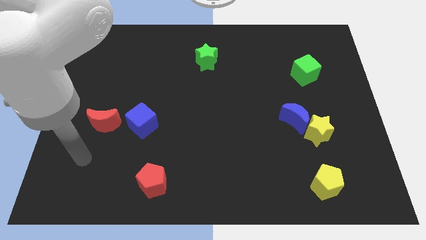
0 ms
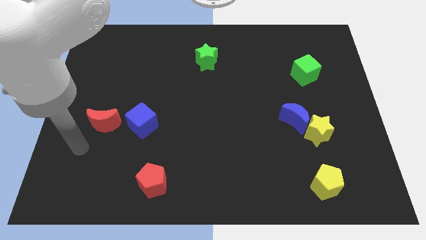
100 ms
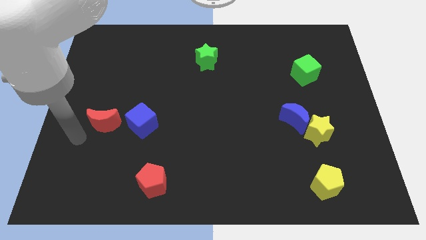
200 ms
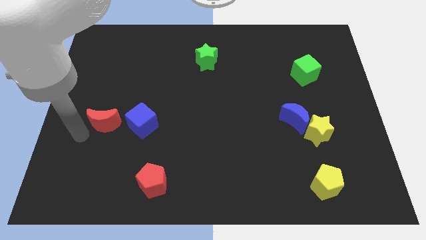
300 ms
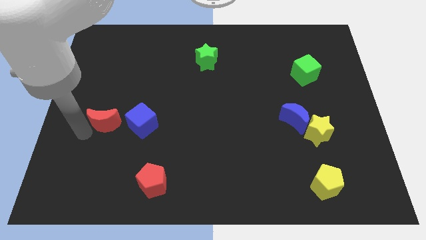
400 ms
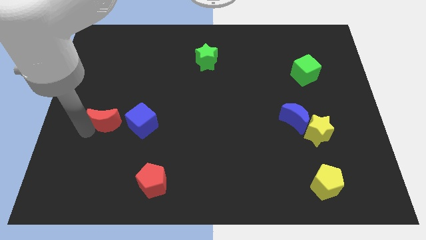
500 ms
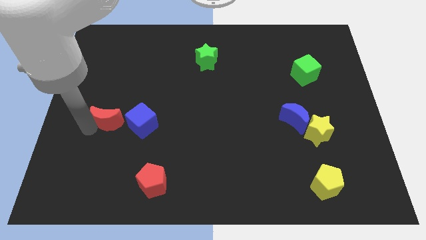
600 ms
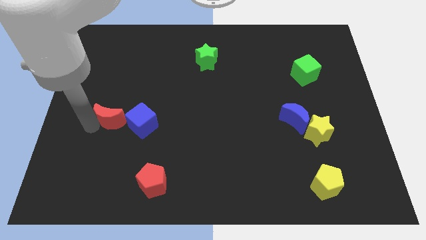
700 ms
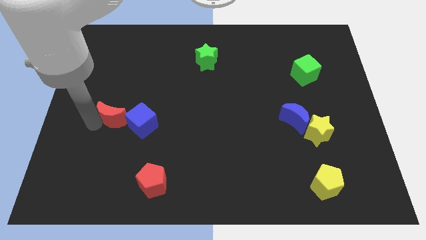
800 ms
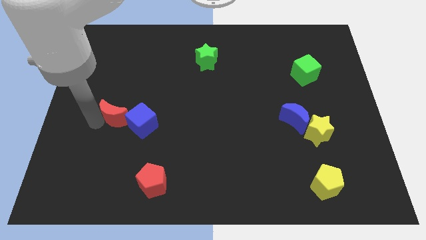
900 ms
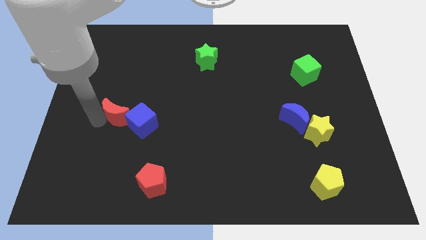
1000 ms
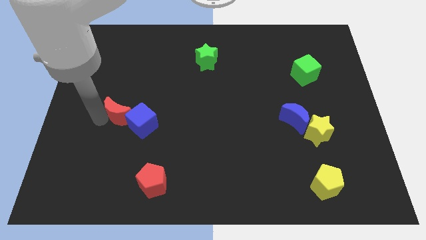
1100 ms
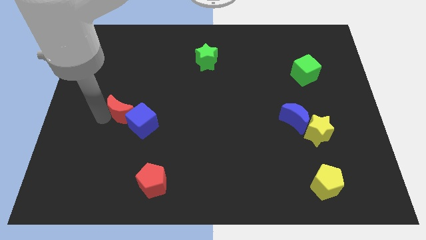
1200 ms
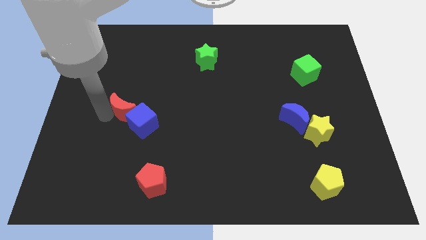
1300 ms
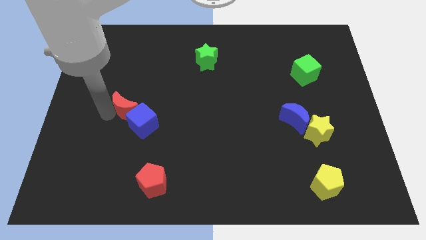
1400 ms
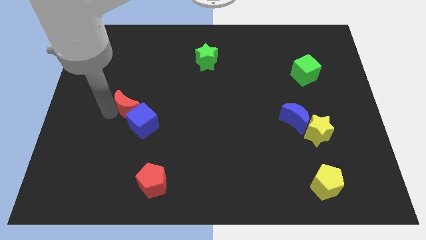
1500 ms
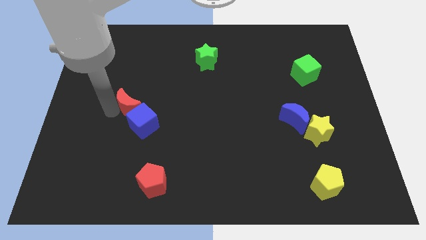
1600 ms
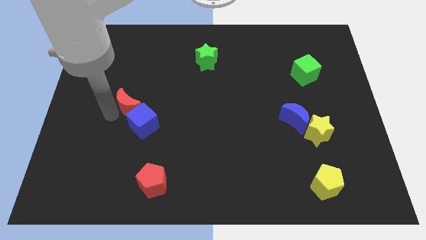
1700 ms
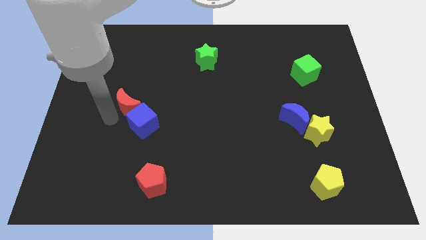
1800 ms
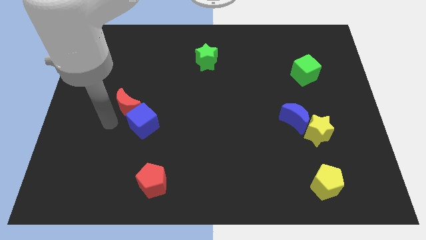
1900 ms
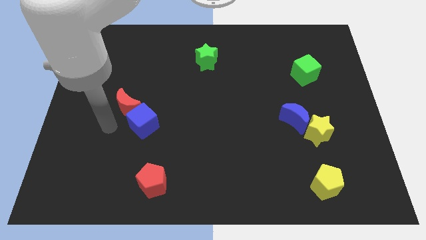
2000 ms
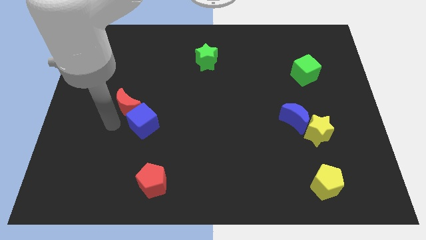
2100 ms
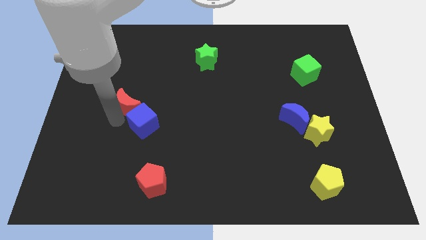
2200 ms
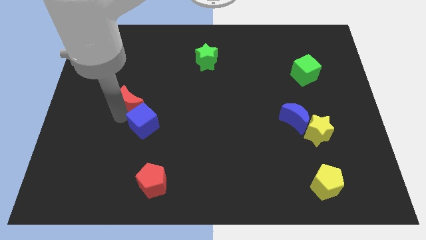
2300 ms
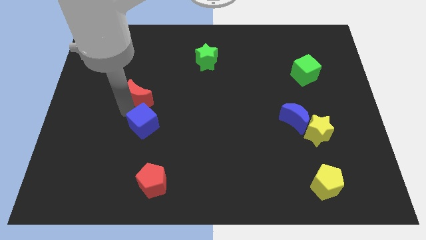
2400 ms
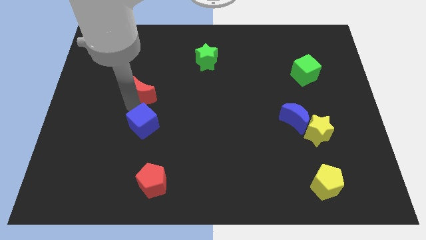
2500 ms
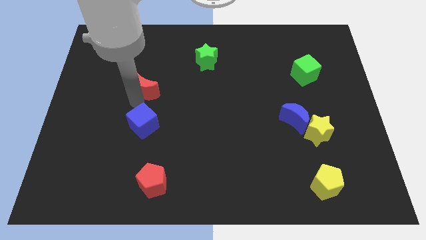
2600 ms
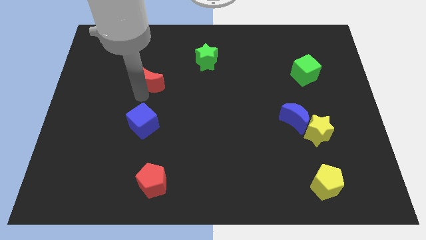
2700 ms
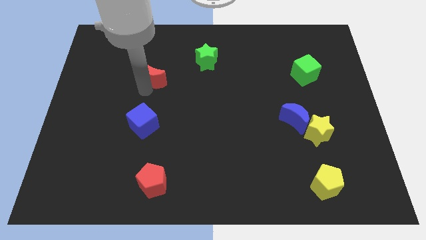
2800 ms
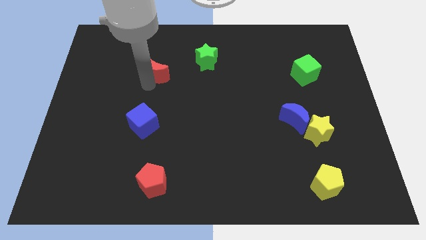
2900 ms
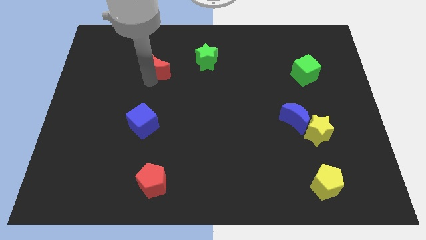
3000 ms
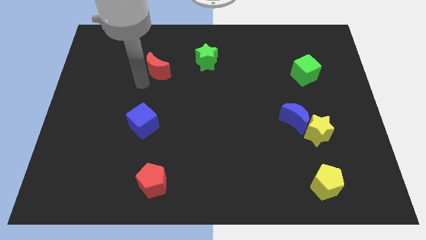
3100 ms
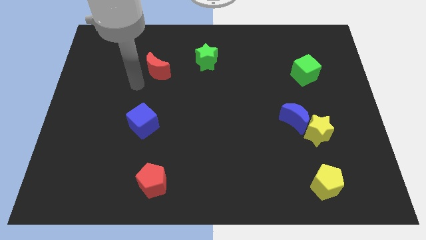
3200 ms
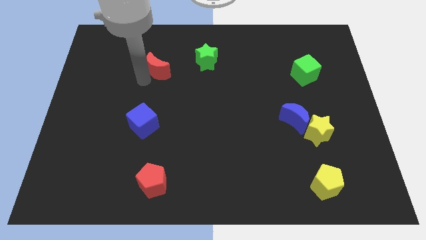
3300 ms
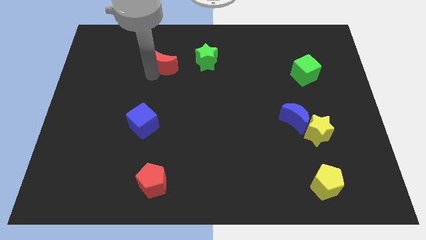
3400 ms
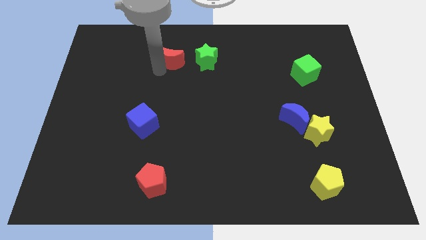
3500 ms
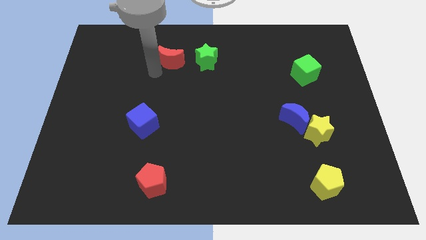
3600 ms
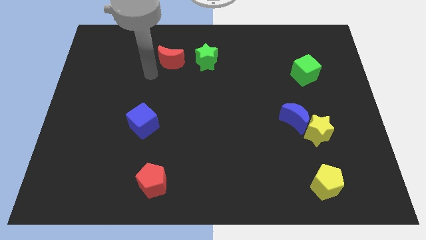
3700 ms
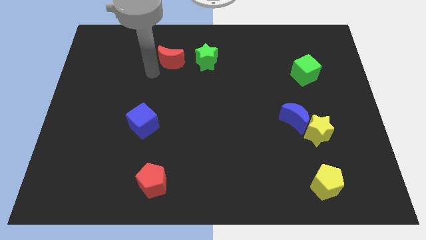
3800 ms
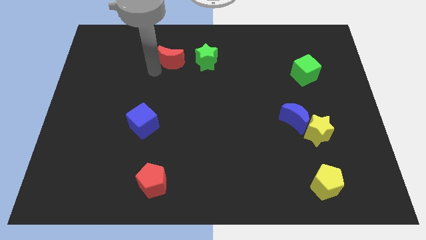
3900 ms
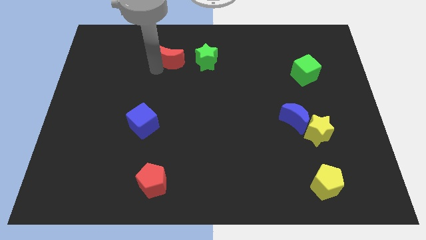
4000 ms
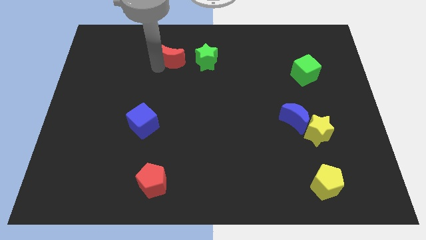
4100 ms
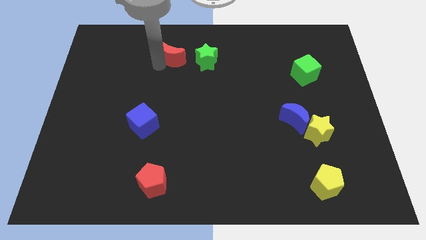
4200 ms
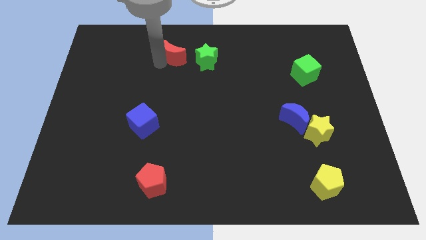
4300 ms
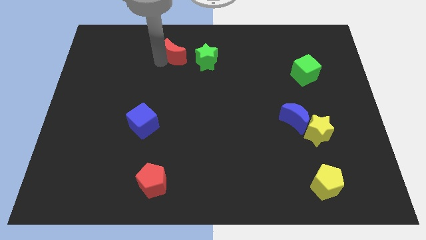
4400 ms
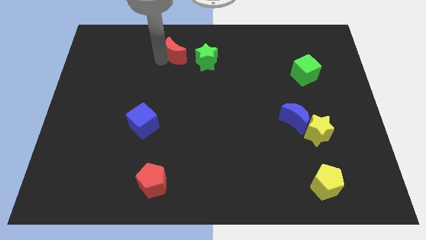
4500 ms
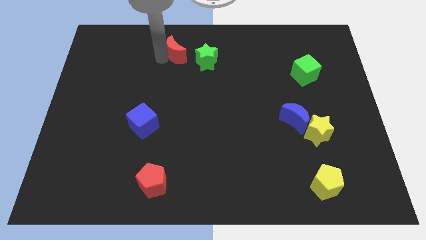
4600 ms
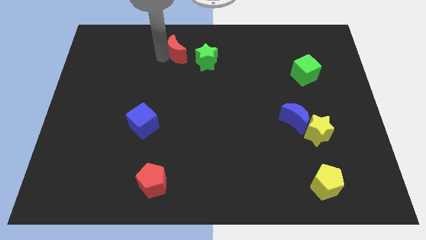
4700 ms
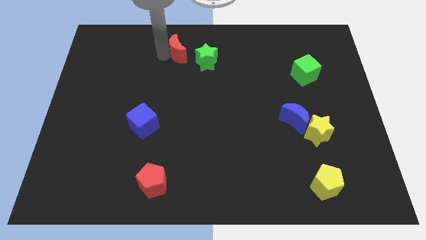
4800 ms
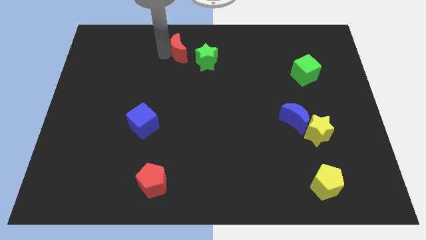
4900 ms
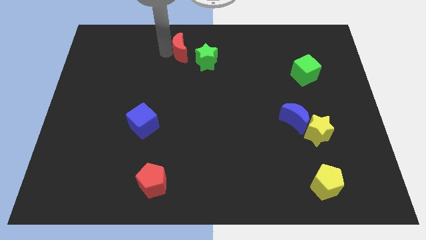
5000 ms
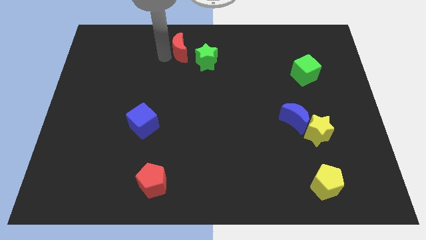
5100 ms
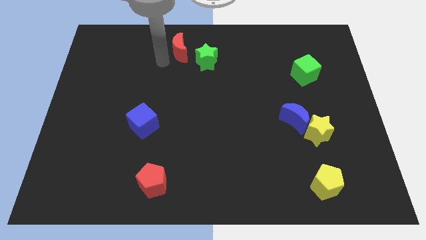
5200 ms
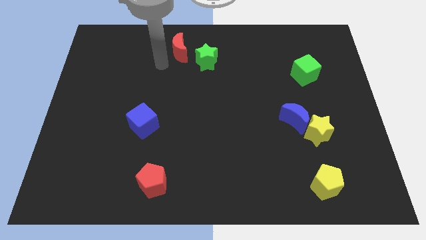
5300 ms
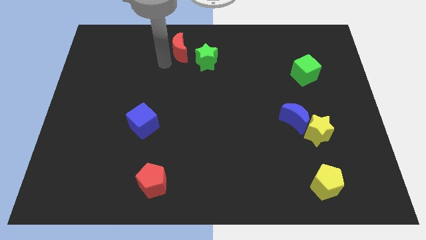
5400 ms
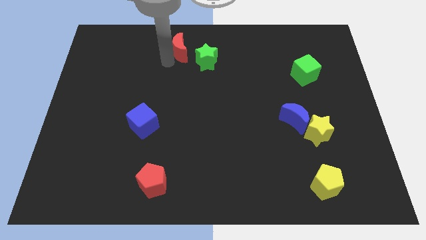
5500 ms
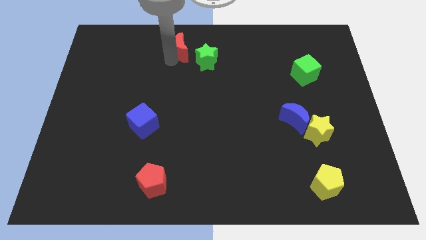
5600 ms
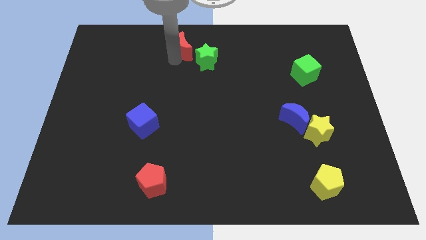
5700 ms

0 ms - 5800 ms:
move the red moon to the towards your base
